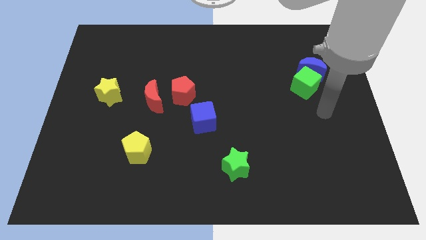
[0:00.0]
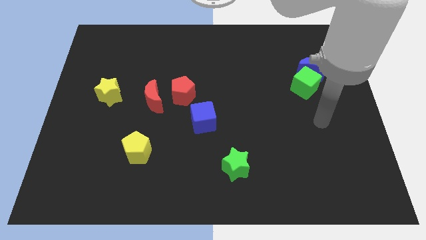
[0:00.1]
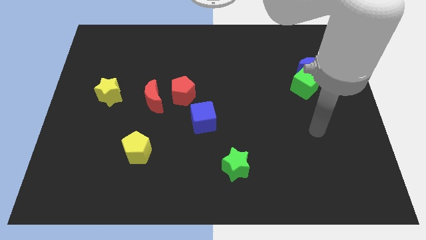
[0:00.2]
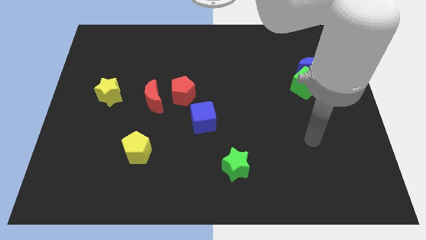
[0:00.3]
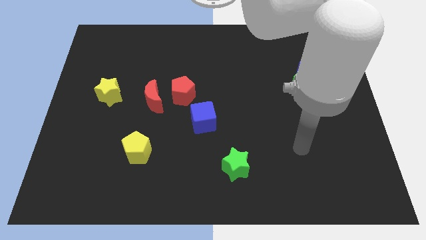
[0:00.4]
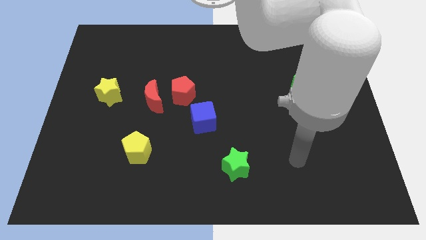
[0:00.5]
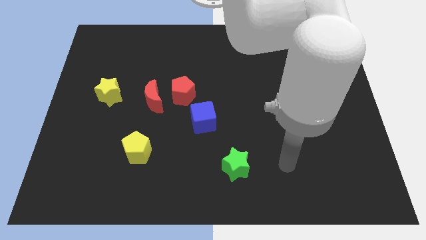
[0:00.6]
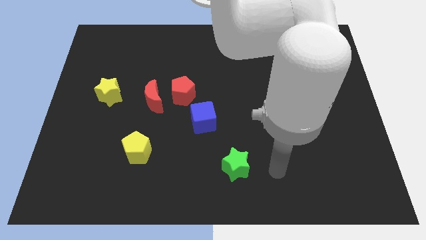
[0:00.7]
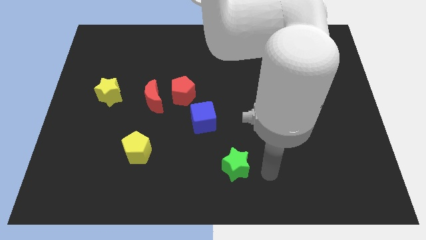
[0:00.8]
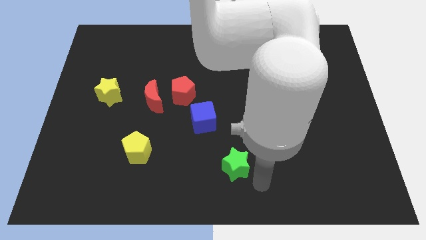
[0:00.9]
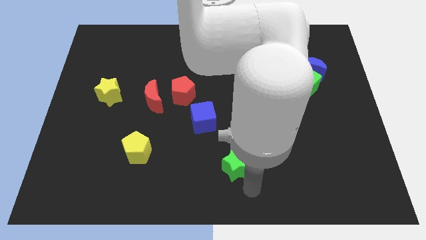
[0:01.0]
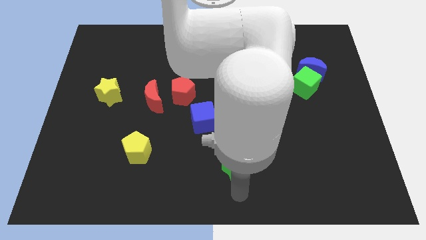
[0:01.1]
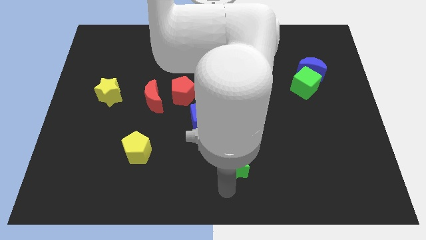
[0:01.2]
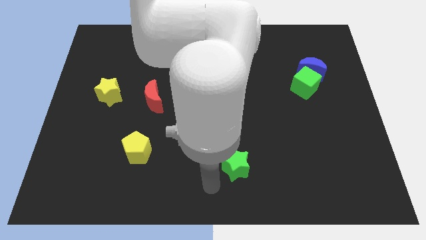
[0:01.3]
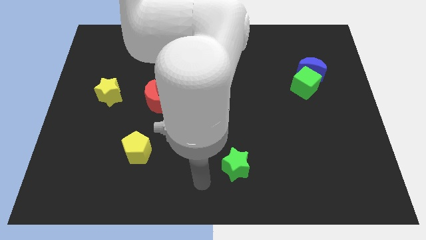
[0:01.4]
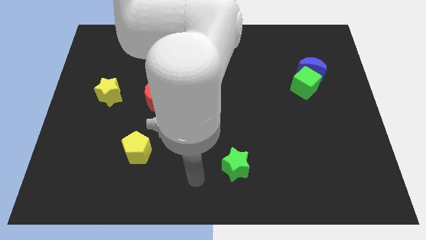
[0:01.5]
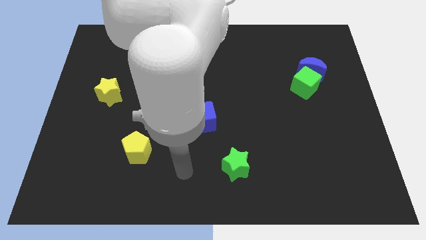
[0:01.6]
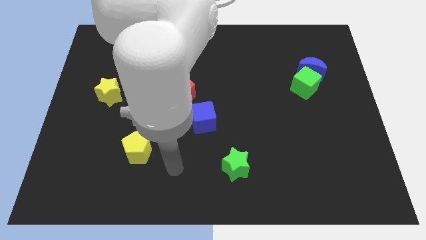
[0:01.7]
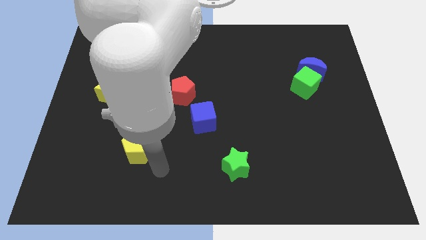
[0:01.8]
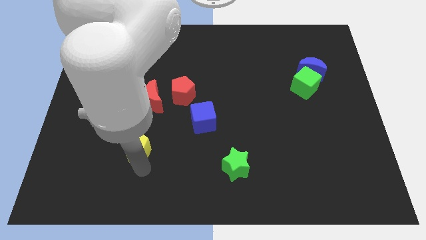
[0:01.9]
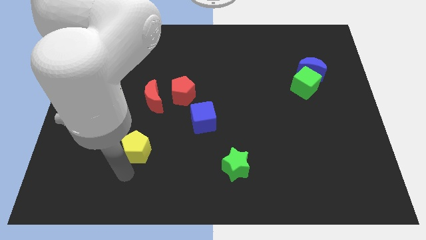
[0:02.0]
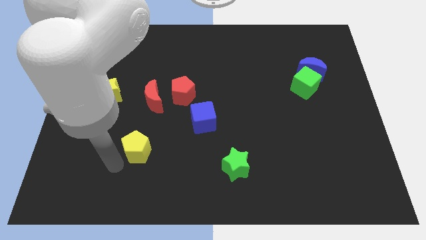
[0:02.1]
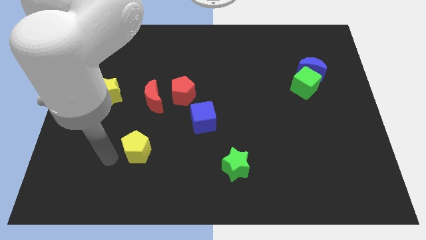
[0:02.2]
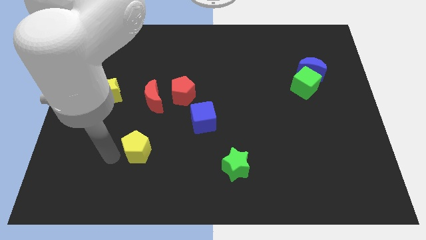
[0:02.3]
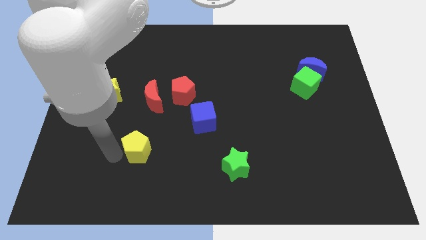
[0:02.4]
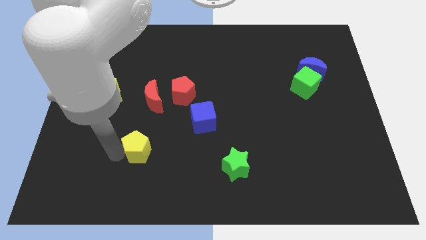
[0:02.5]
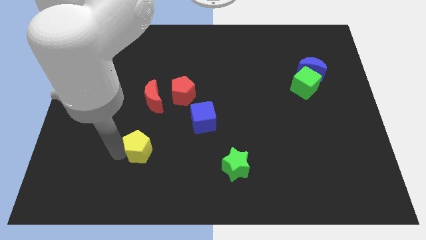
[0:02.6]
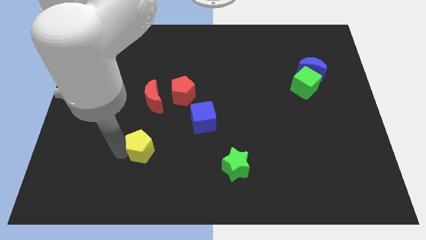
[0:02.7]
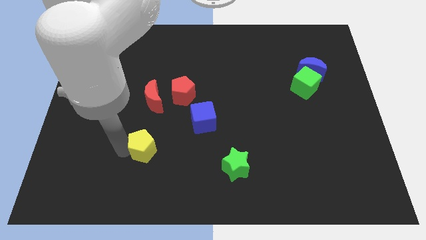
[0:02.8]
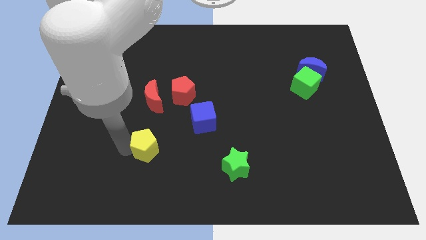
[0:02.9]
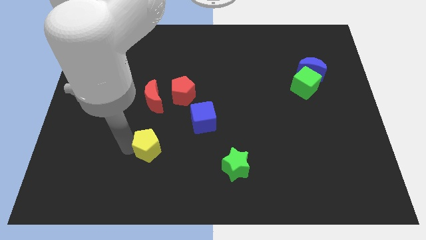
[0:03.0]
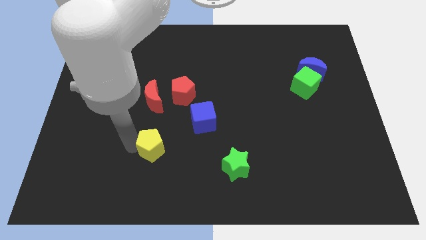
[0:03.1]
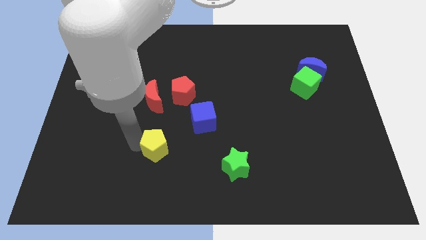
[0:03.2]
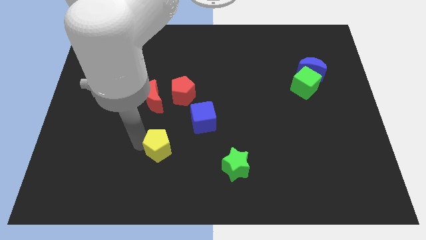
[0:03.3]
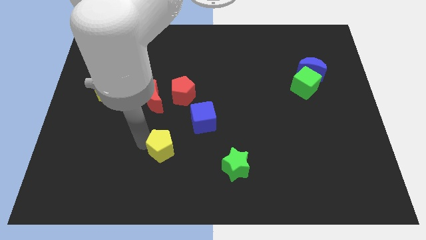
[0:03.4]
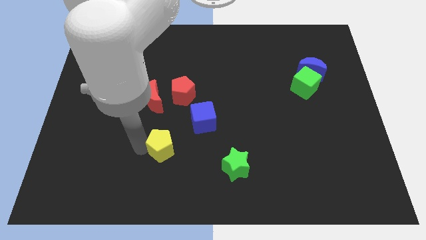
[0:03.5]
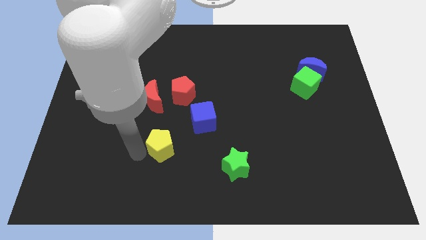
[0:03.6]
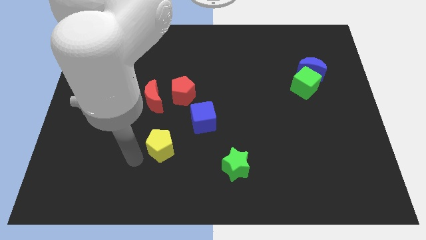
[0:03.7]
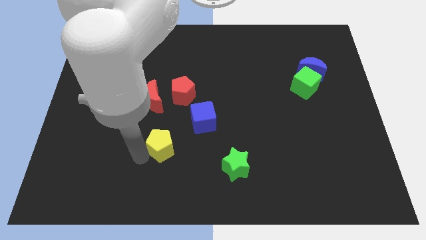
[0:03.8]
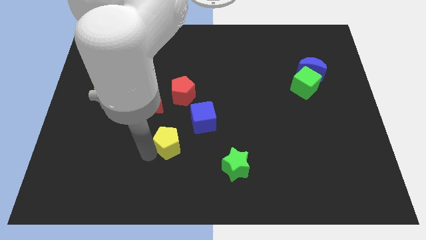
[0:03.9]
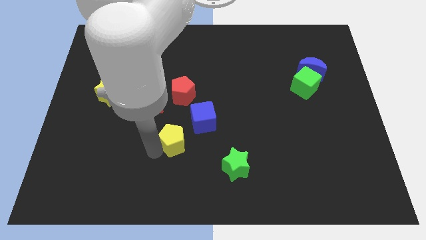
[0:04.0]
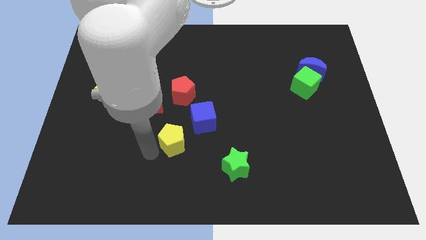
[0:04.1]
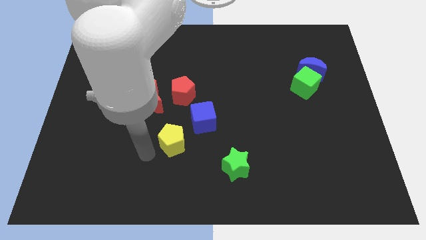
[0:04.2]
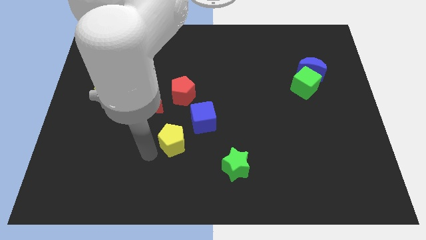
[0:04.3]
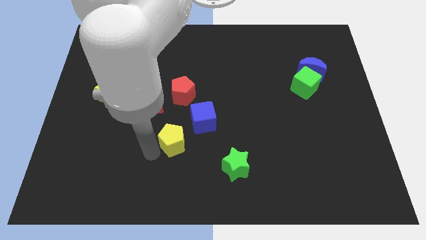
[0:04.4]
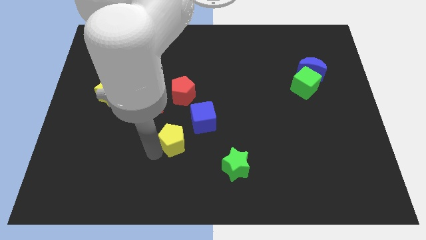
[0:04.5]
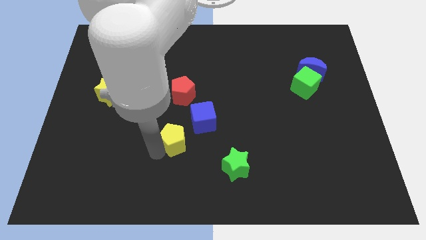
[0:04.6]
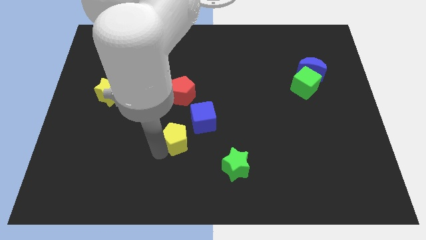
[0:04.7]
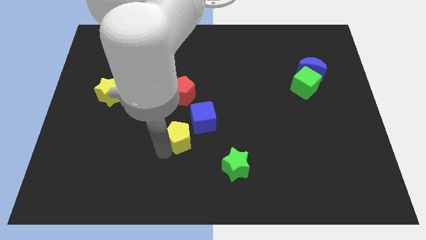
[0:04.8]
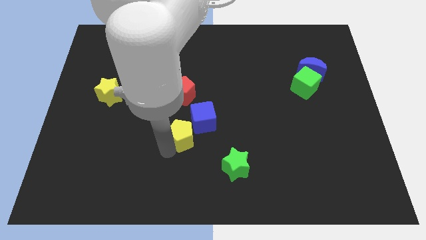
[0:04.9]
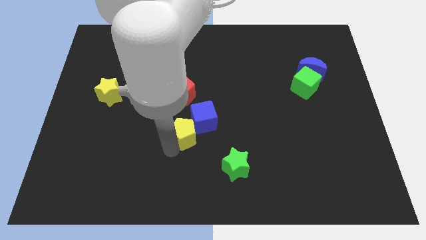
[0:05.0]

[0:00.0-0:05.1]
slide the yellow pentagon next to the blue cube

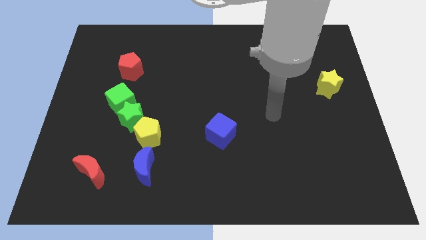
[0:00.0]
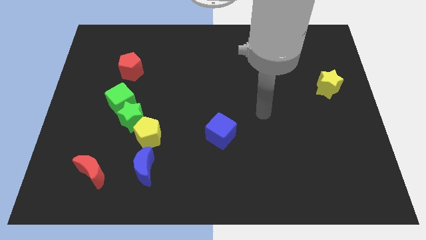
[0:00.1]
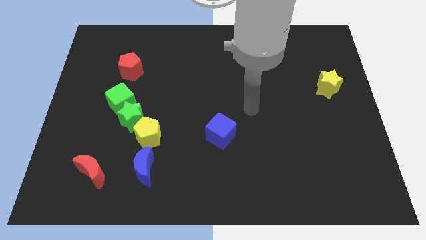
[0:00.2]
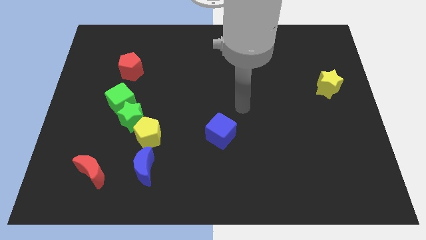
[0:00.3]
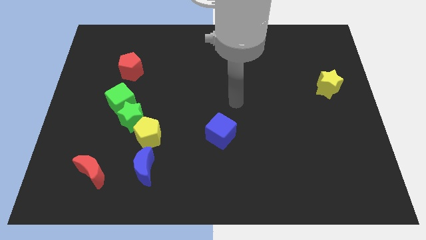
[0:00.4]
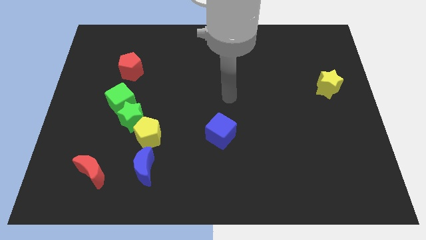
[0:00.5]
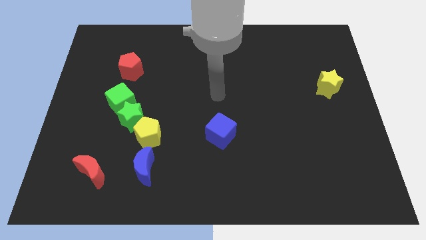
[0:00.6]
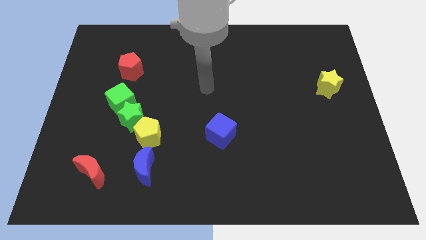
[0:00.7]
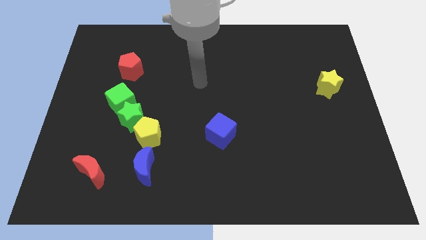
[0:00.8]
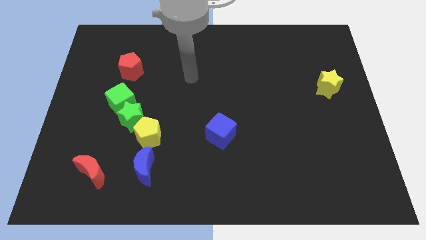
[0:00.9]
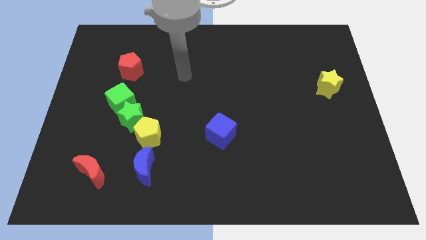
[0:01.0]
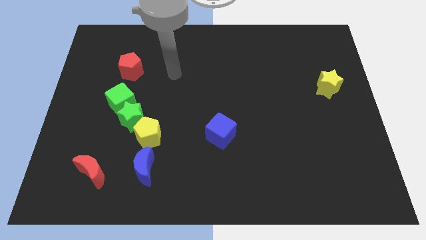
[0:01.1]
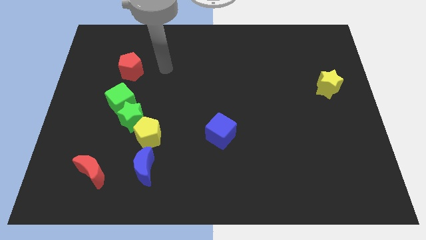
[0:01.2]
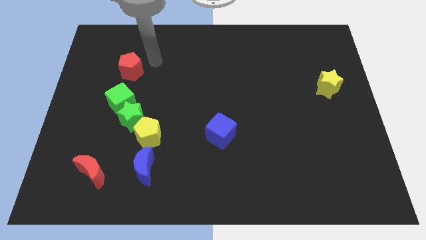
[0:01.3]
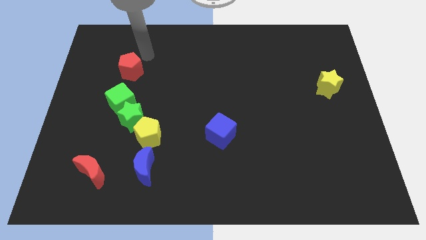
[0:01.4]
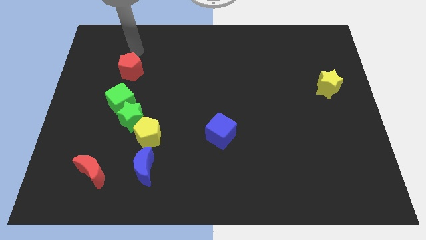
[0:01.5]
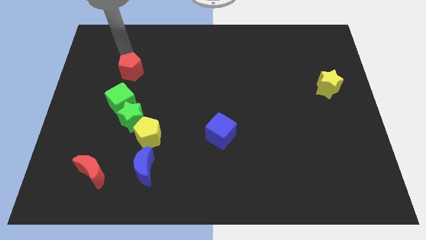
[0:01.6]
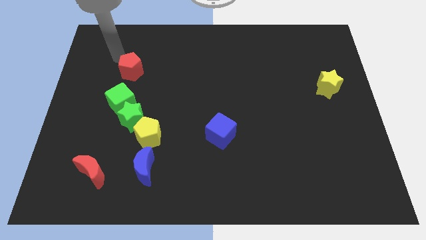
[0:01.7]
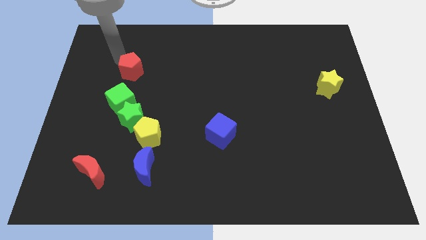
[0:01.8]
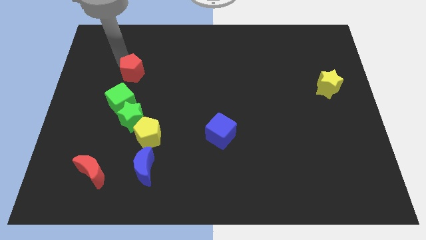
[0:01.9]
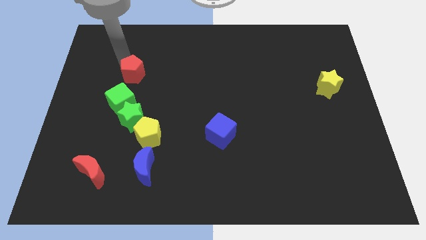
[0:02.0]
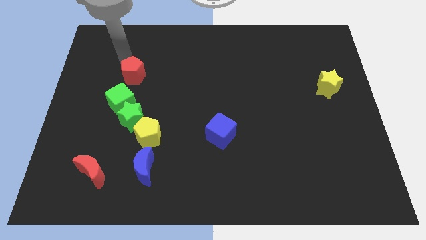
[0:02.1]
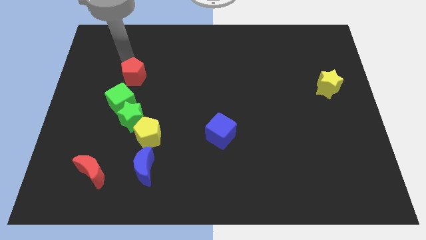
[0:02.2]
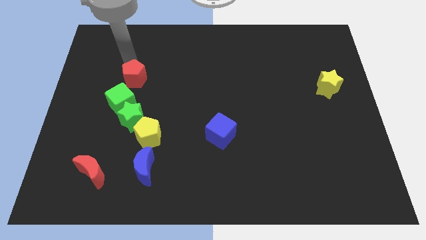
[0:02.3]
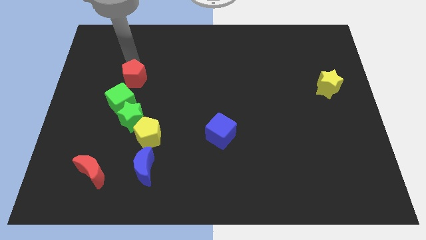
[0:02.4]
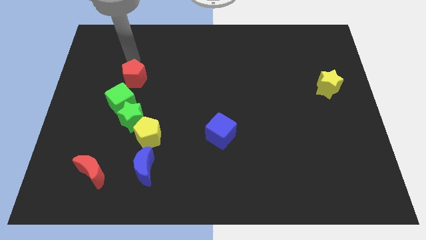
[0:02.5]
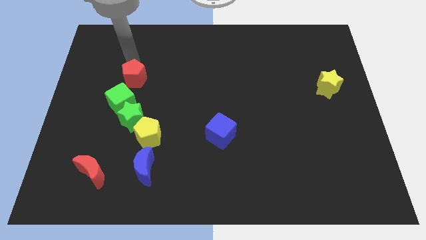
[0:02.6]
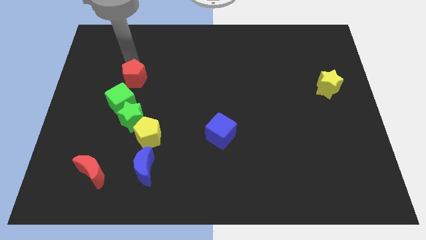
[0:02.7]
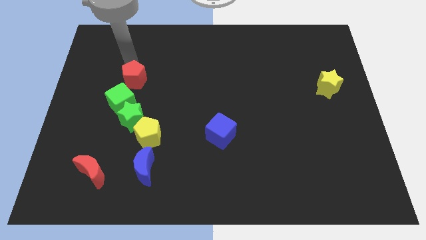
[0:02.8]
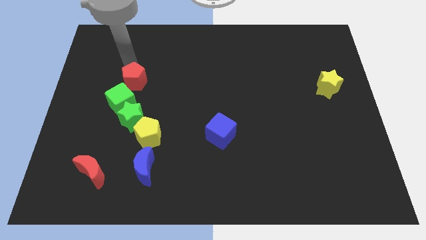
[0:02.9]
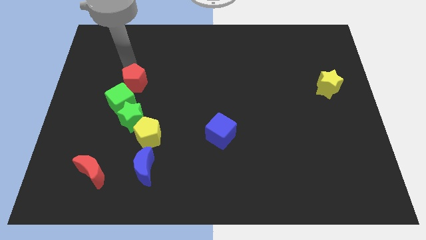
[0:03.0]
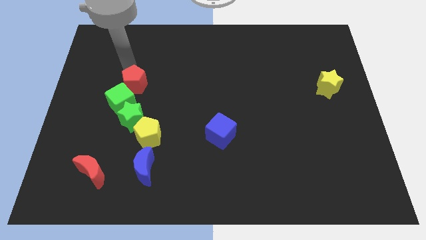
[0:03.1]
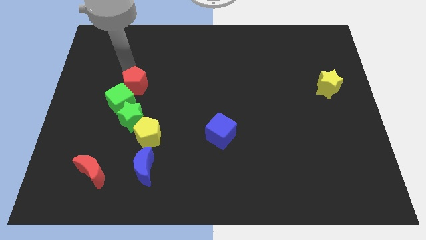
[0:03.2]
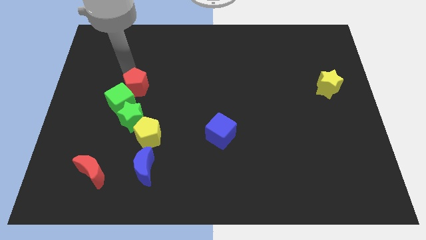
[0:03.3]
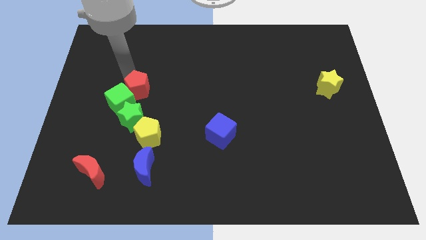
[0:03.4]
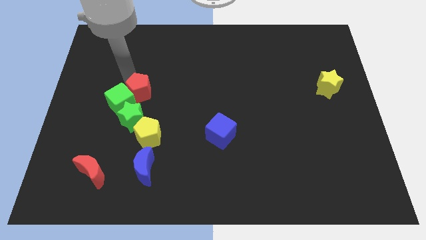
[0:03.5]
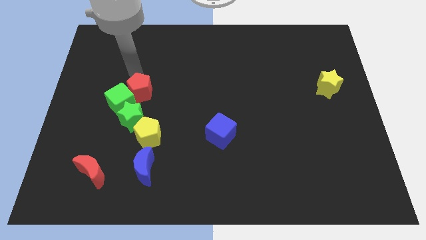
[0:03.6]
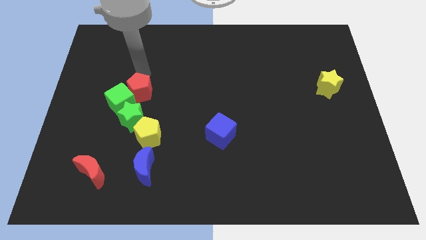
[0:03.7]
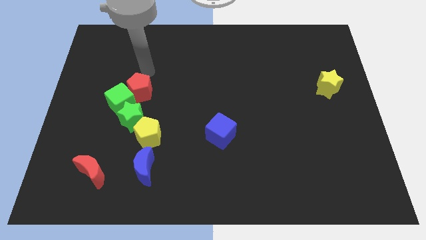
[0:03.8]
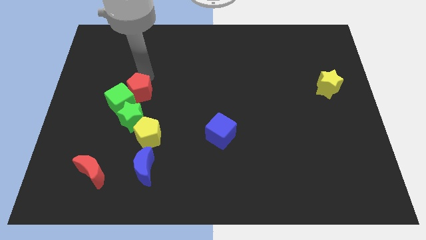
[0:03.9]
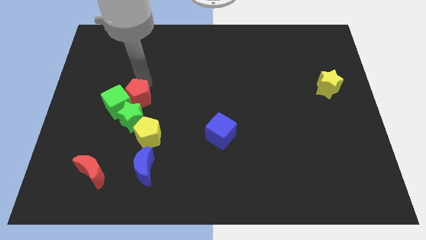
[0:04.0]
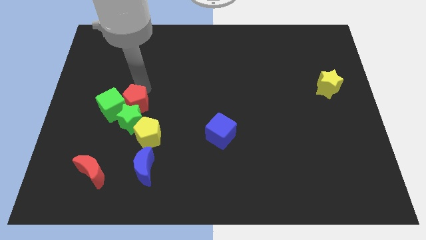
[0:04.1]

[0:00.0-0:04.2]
slide the red pentagon next to the green star
